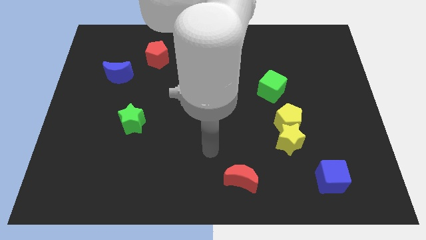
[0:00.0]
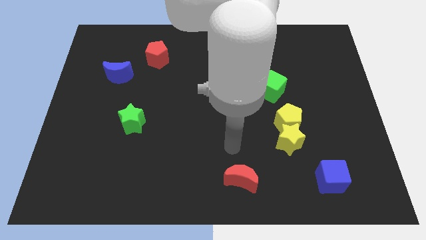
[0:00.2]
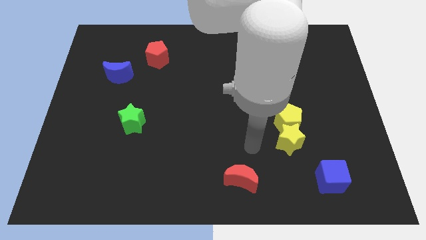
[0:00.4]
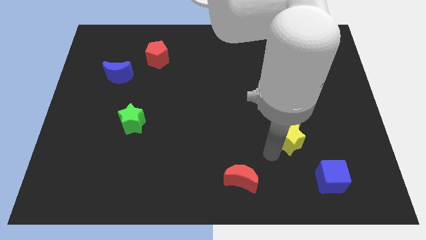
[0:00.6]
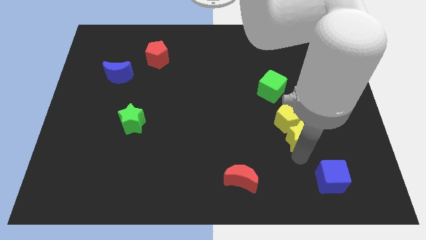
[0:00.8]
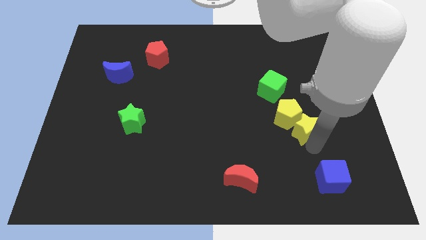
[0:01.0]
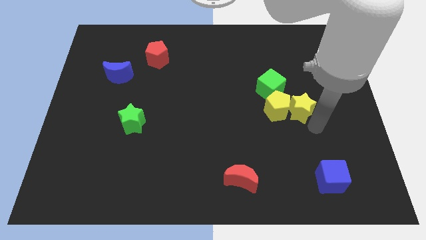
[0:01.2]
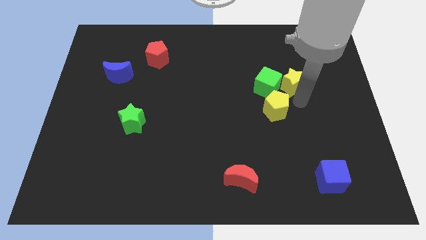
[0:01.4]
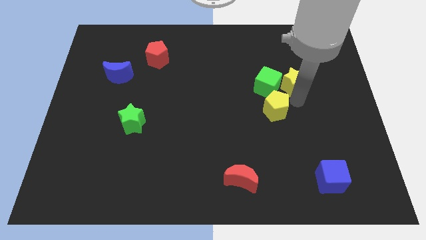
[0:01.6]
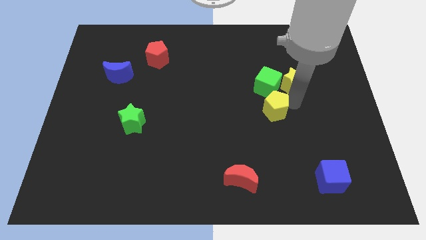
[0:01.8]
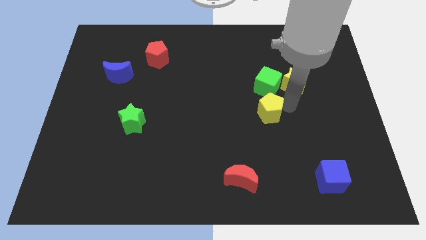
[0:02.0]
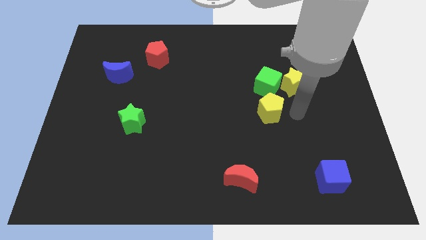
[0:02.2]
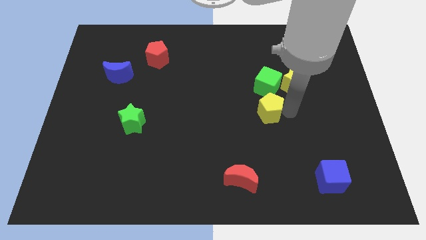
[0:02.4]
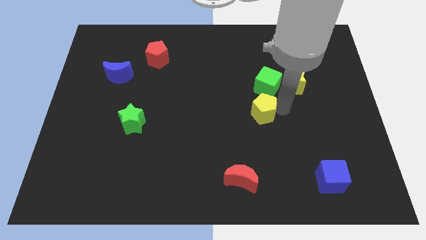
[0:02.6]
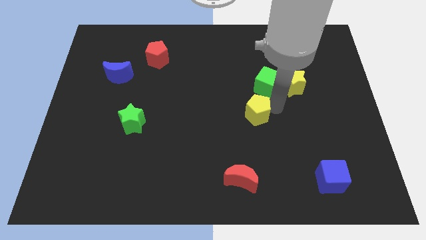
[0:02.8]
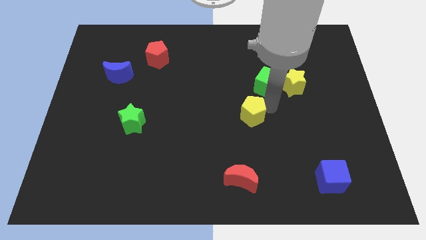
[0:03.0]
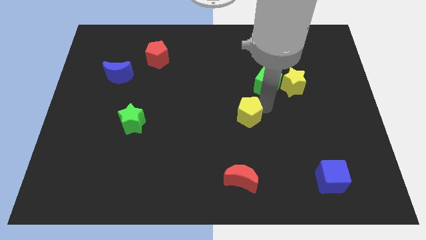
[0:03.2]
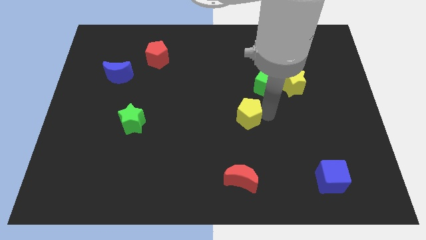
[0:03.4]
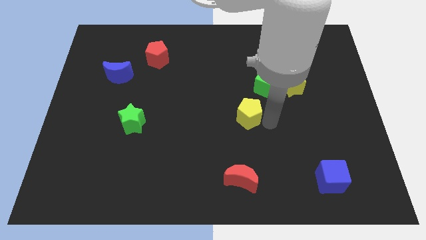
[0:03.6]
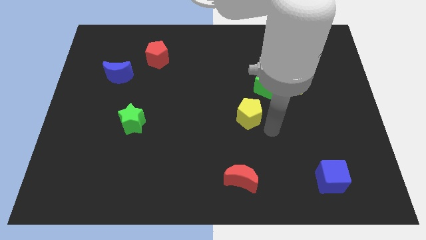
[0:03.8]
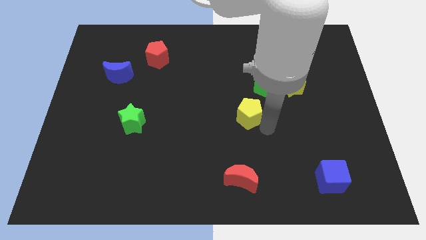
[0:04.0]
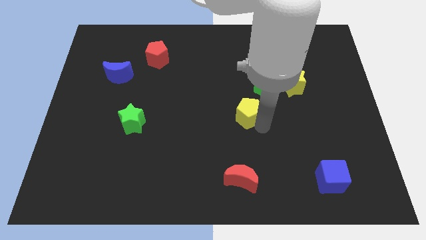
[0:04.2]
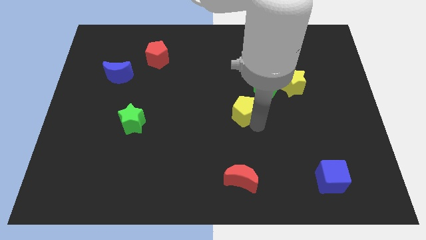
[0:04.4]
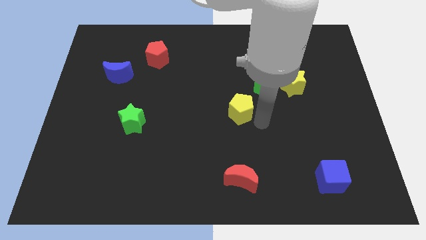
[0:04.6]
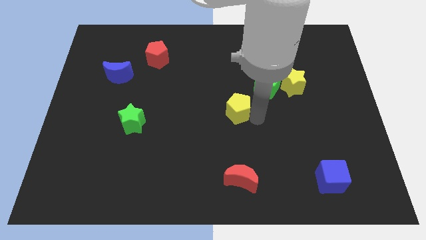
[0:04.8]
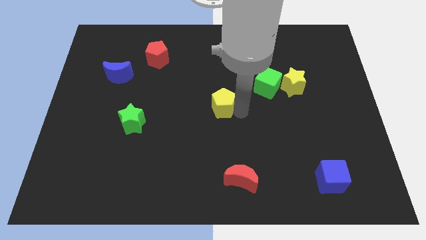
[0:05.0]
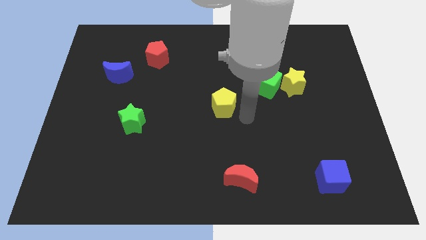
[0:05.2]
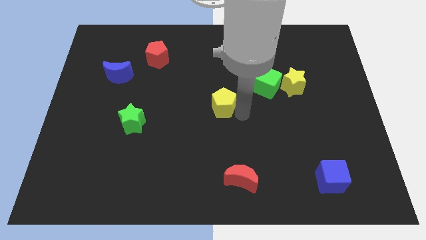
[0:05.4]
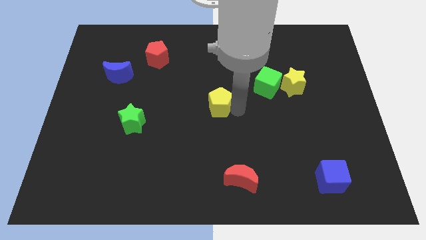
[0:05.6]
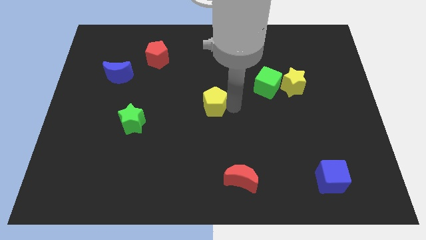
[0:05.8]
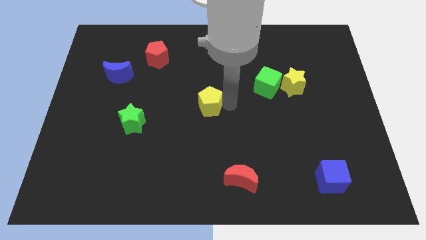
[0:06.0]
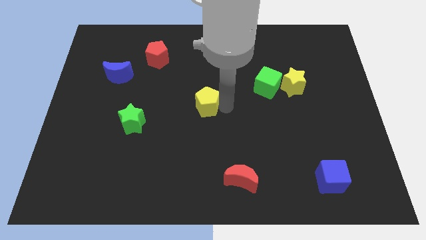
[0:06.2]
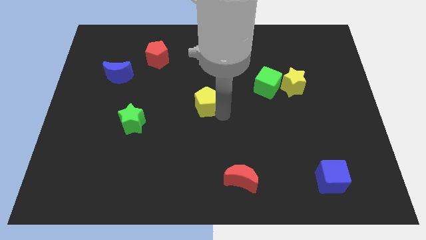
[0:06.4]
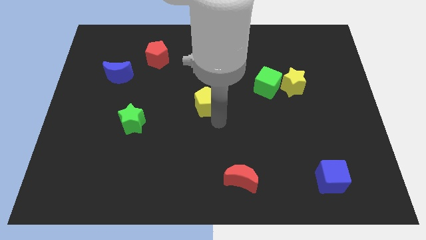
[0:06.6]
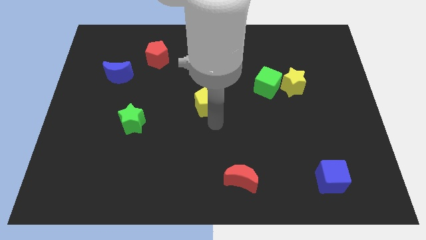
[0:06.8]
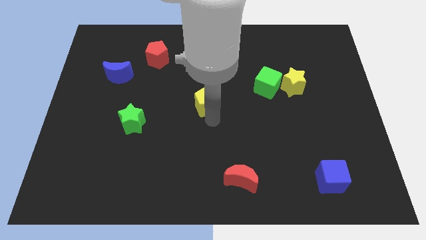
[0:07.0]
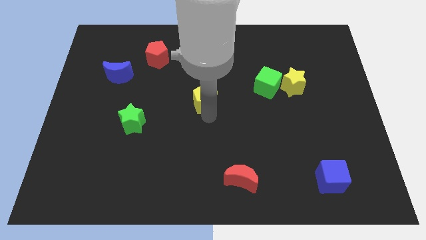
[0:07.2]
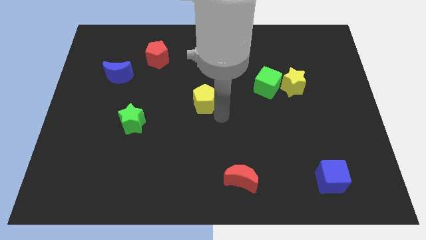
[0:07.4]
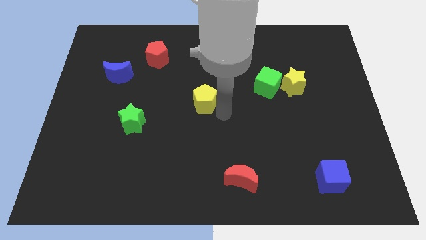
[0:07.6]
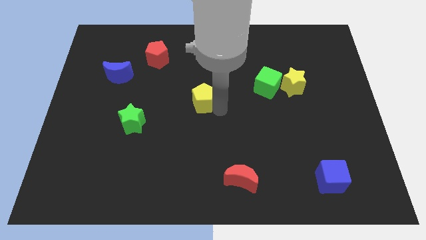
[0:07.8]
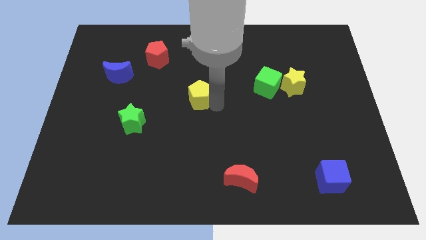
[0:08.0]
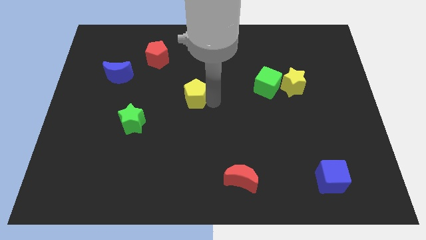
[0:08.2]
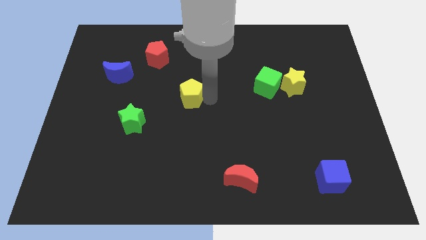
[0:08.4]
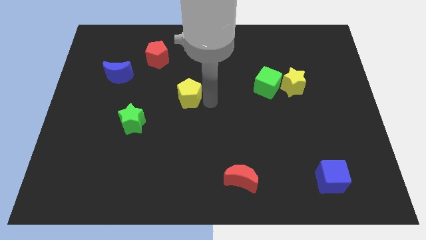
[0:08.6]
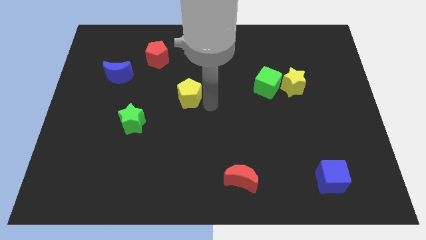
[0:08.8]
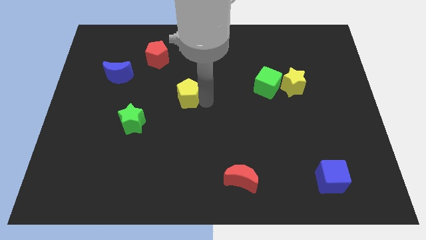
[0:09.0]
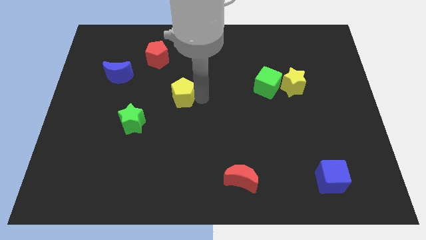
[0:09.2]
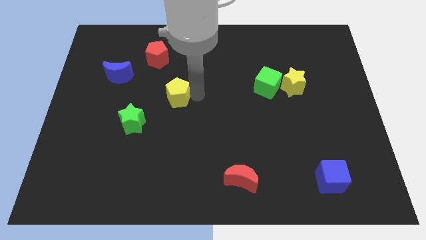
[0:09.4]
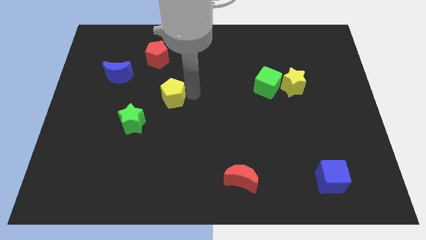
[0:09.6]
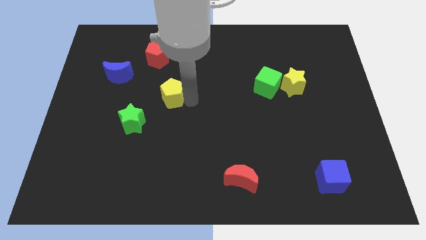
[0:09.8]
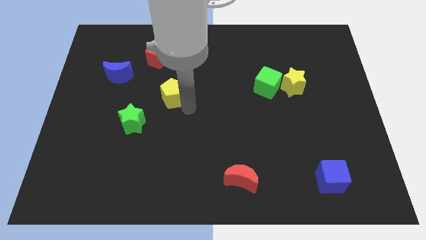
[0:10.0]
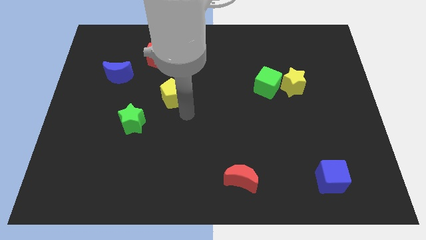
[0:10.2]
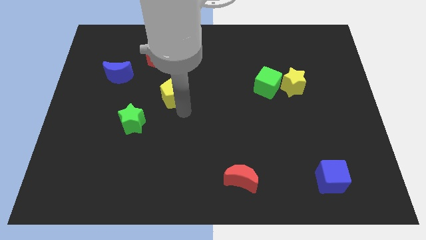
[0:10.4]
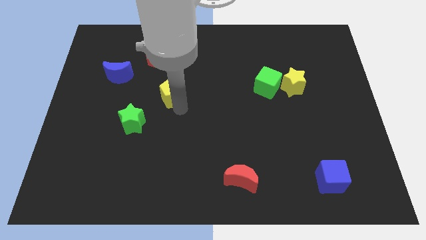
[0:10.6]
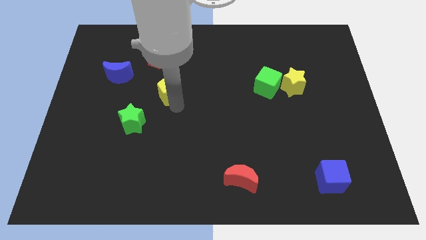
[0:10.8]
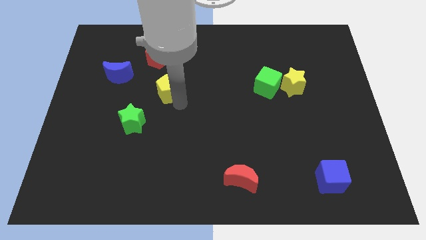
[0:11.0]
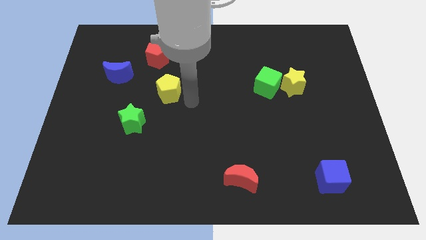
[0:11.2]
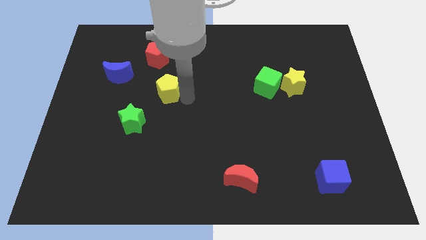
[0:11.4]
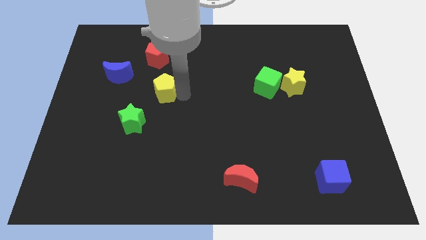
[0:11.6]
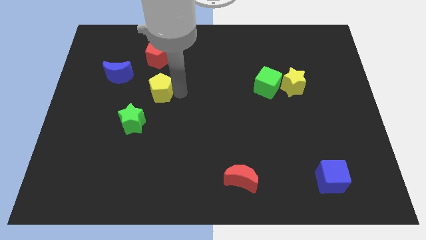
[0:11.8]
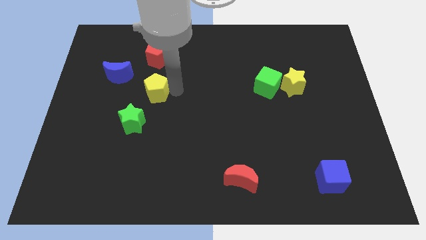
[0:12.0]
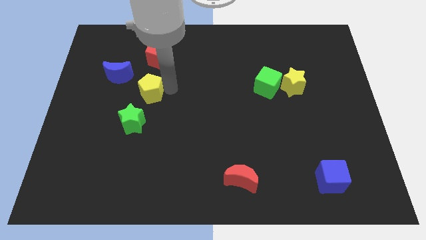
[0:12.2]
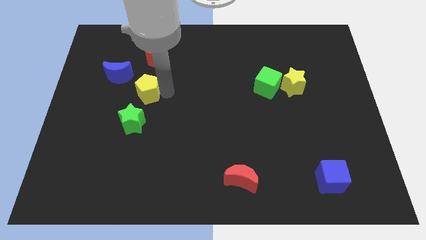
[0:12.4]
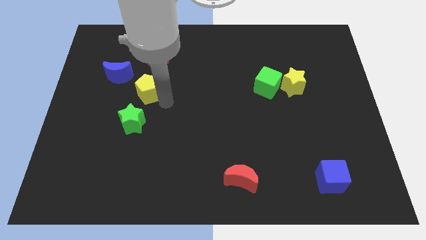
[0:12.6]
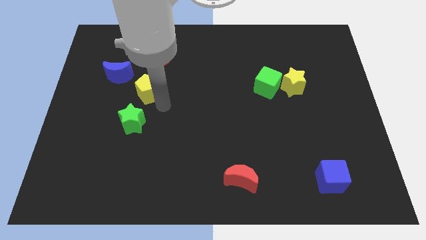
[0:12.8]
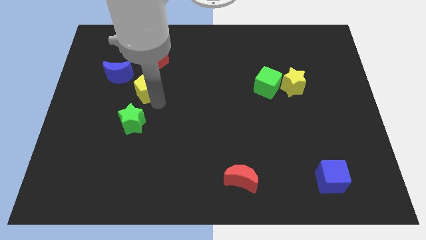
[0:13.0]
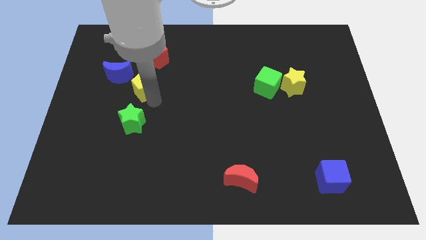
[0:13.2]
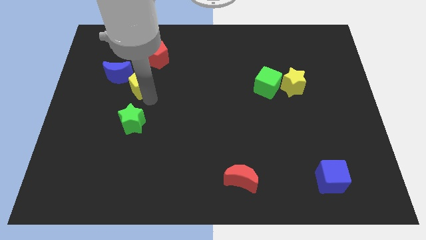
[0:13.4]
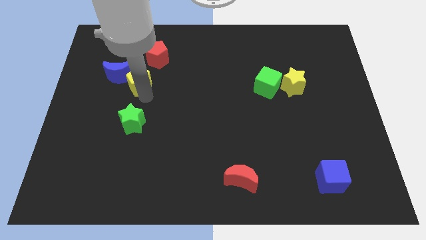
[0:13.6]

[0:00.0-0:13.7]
move the yellow pentagon towards the blue moon
